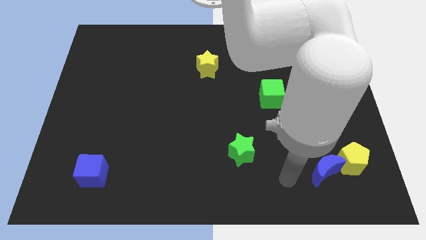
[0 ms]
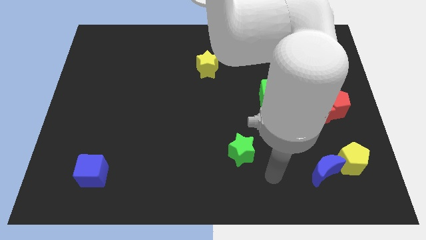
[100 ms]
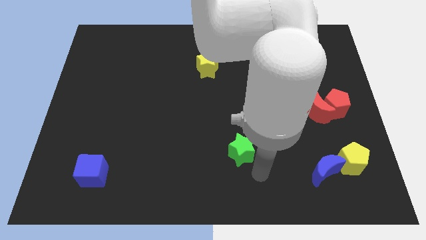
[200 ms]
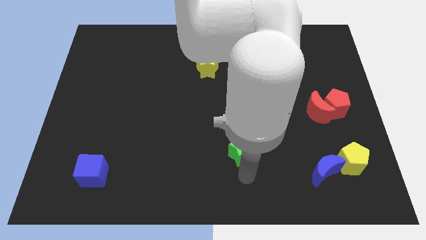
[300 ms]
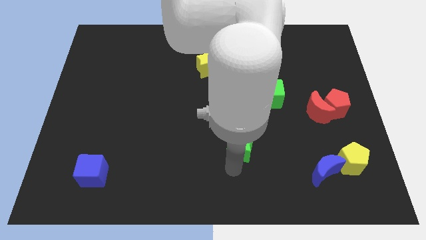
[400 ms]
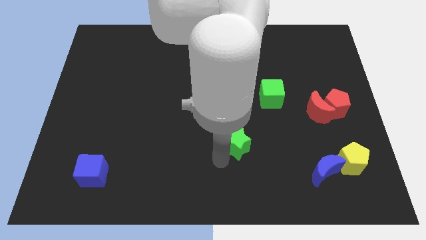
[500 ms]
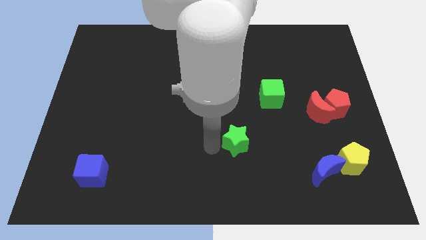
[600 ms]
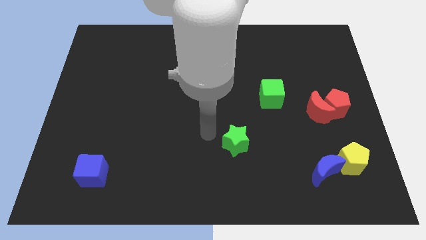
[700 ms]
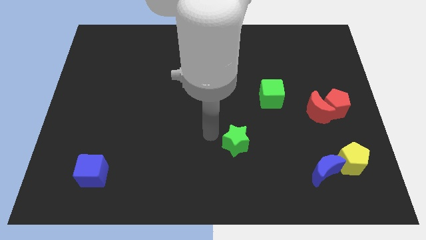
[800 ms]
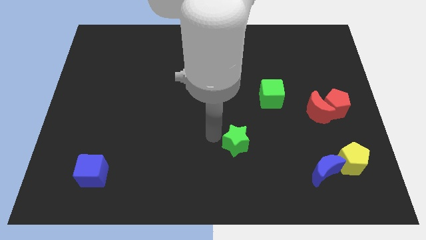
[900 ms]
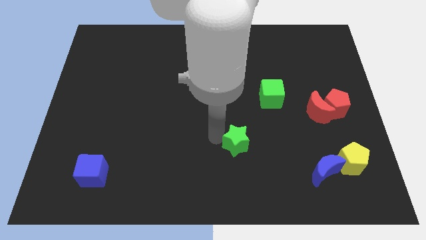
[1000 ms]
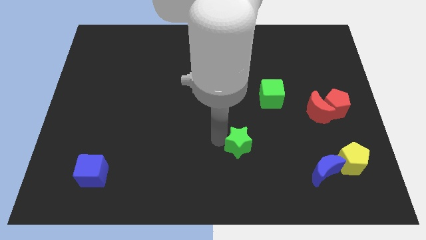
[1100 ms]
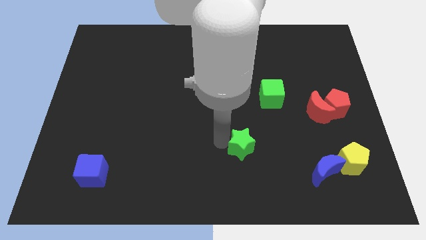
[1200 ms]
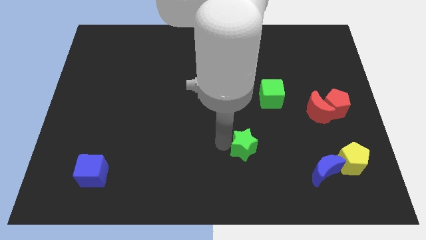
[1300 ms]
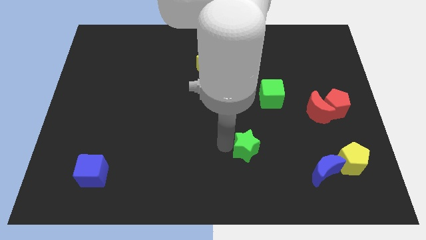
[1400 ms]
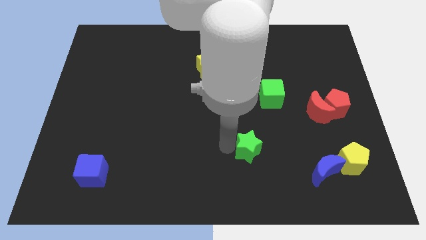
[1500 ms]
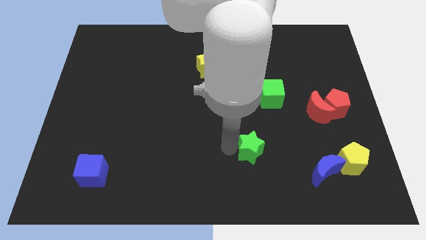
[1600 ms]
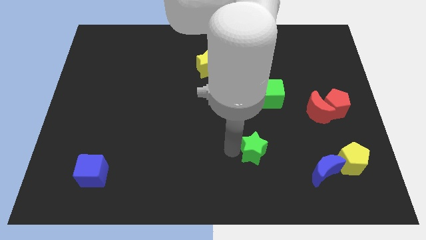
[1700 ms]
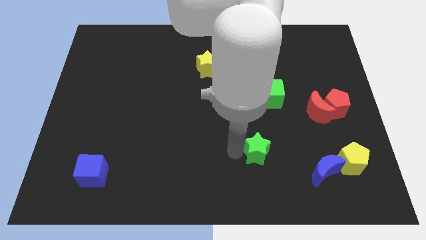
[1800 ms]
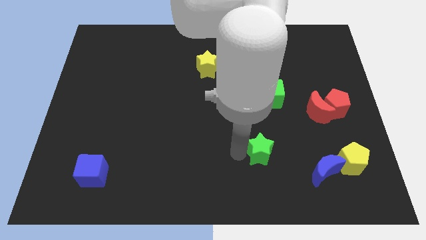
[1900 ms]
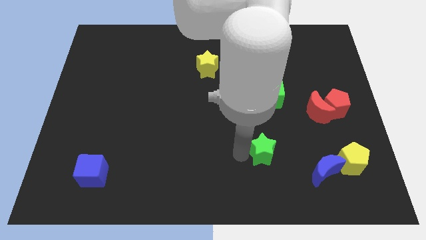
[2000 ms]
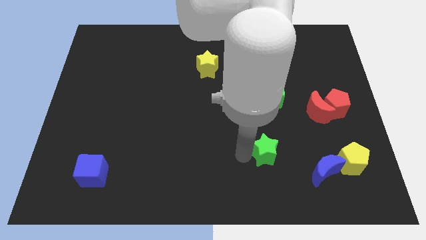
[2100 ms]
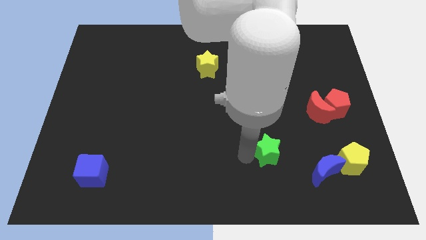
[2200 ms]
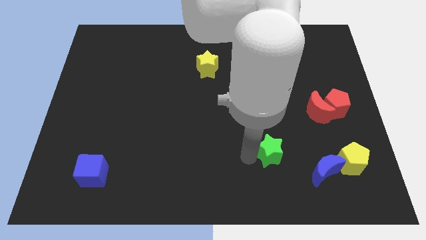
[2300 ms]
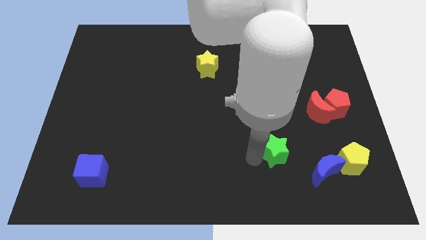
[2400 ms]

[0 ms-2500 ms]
move the green star right a little

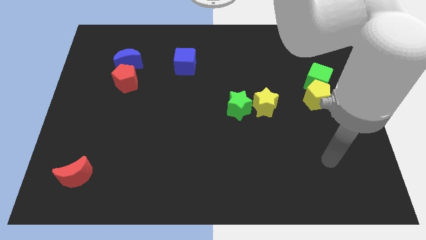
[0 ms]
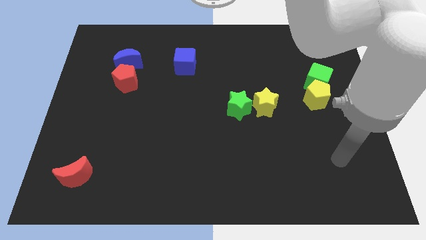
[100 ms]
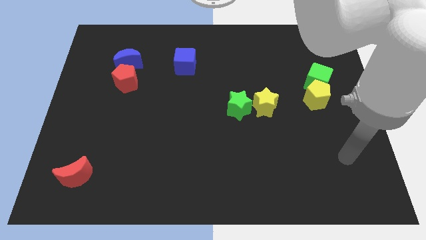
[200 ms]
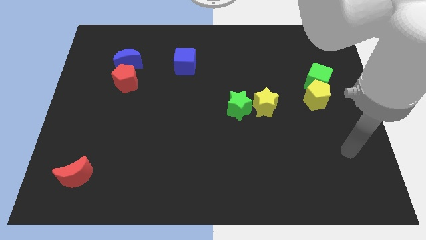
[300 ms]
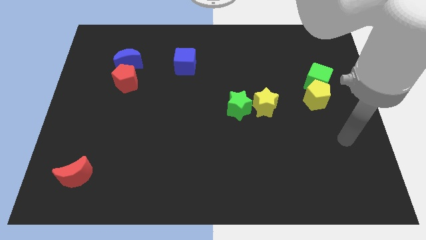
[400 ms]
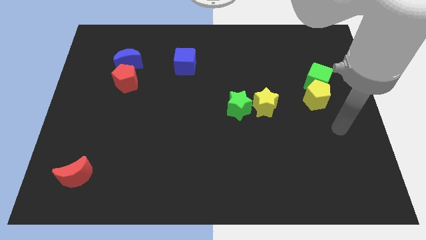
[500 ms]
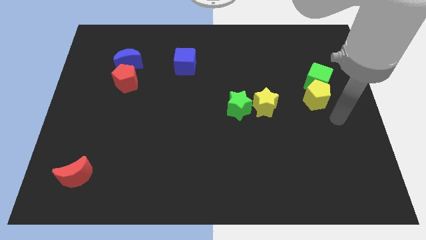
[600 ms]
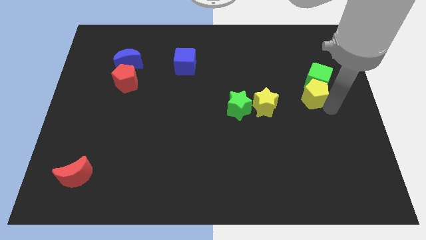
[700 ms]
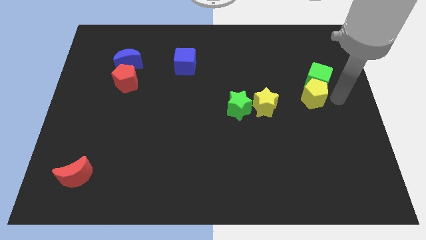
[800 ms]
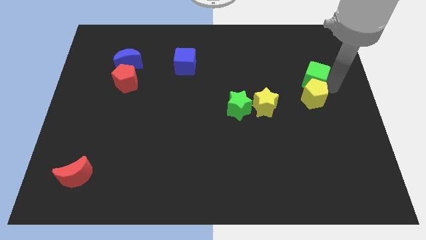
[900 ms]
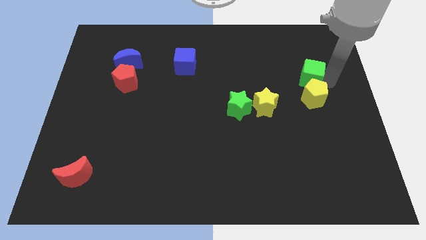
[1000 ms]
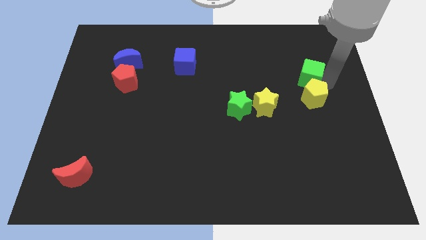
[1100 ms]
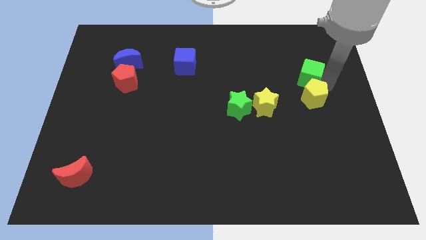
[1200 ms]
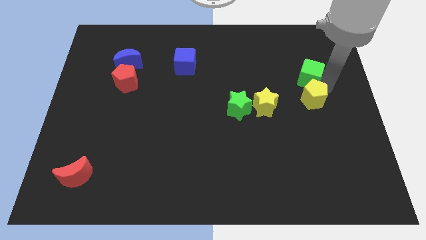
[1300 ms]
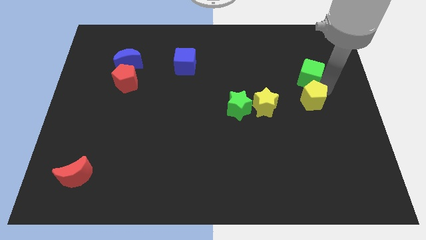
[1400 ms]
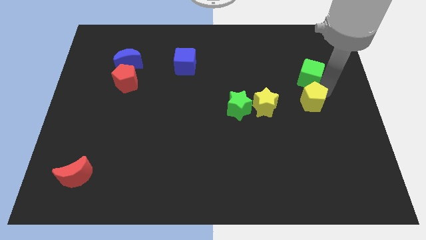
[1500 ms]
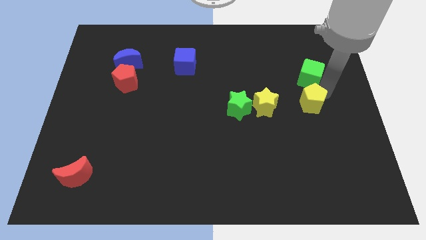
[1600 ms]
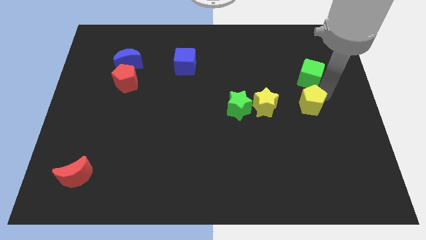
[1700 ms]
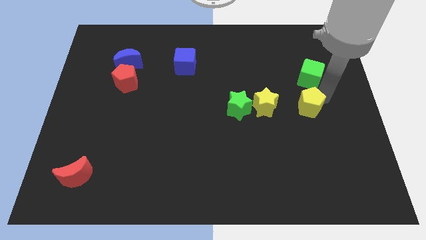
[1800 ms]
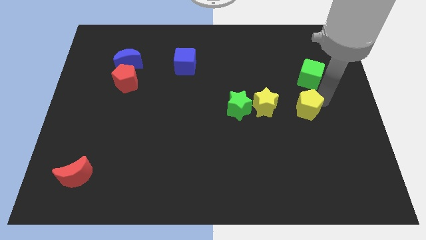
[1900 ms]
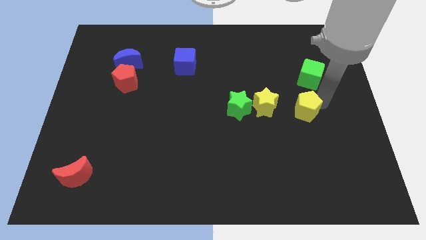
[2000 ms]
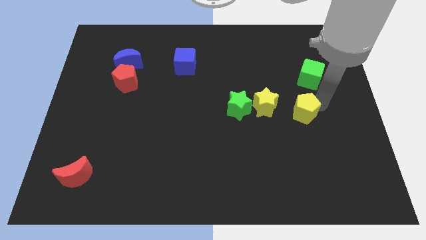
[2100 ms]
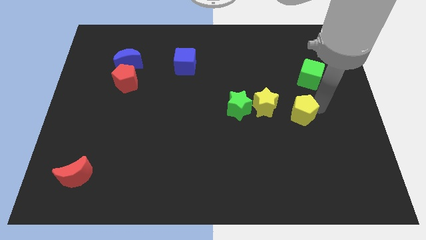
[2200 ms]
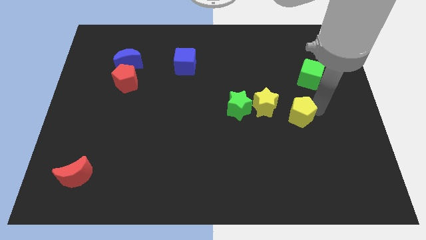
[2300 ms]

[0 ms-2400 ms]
move the yellow pentagon downwards and left diagonally somewhat

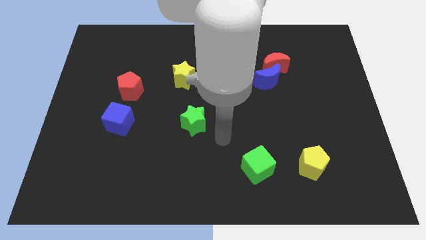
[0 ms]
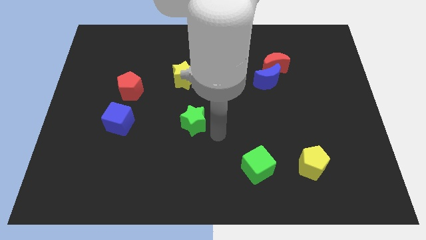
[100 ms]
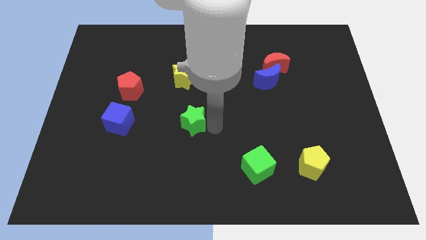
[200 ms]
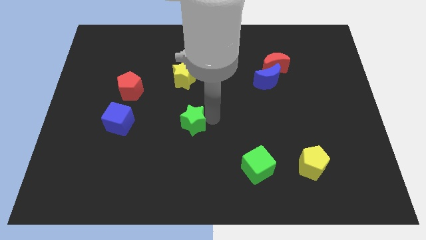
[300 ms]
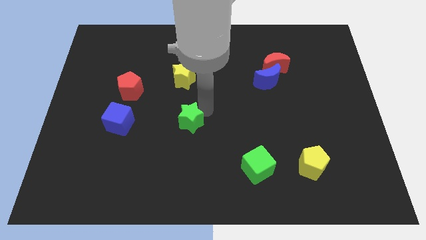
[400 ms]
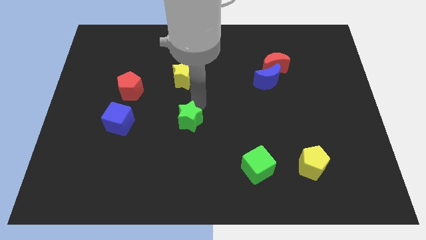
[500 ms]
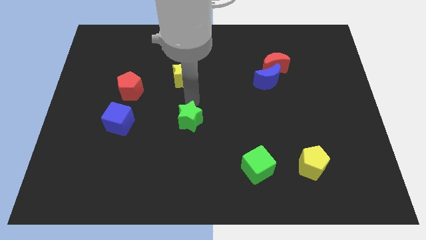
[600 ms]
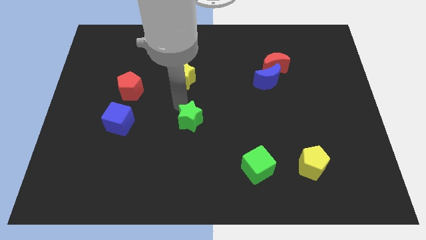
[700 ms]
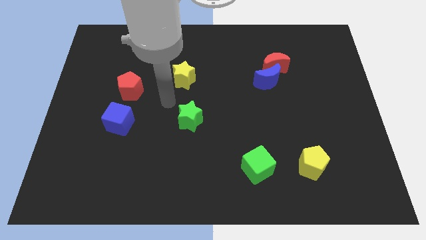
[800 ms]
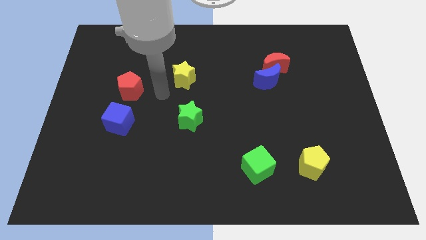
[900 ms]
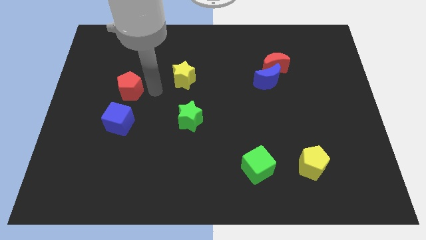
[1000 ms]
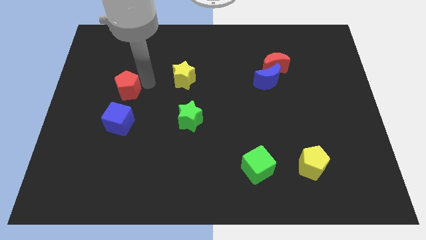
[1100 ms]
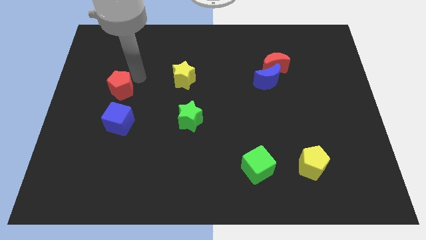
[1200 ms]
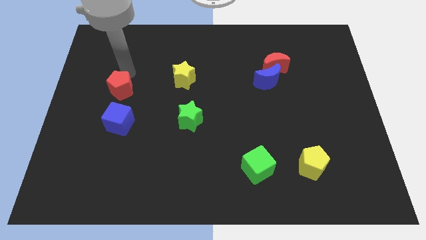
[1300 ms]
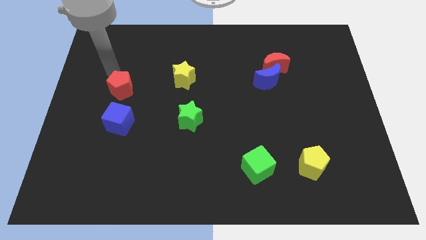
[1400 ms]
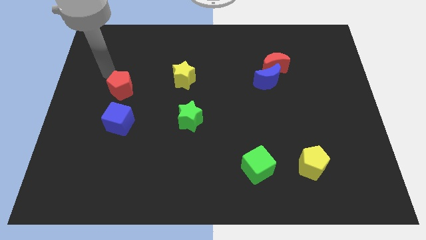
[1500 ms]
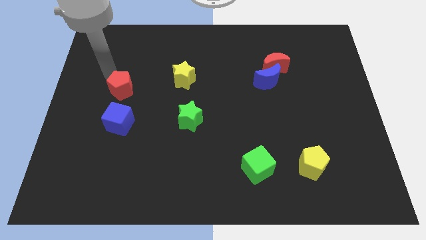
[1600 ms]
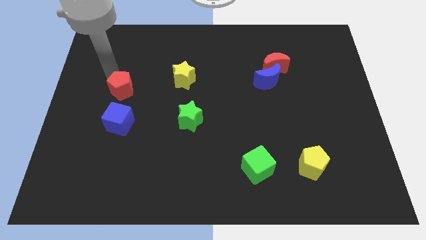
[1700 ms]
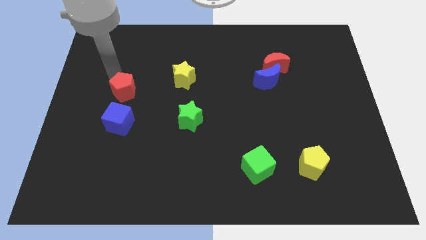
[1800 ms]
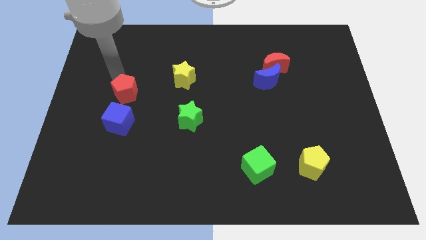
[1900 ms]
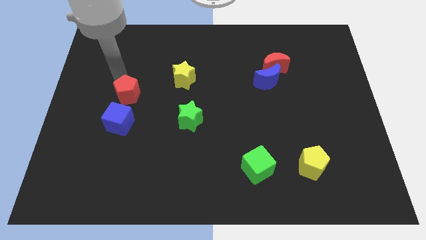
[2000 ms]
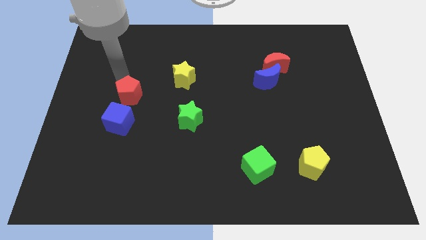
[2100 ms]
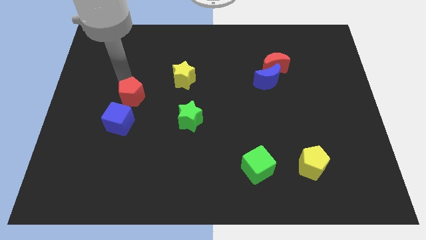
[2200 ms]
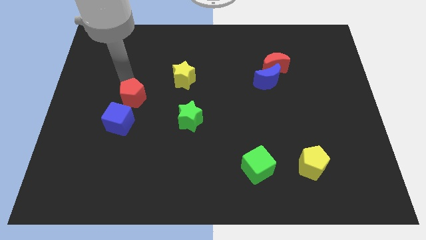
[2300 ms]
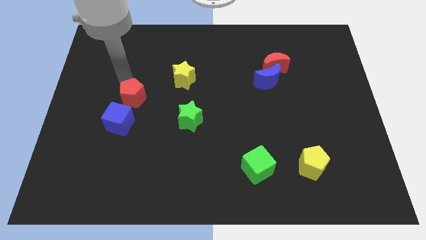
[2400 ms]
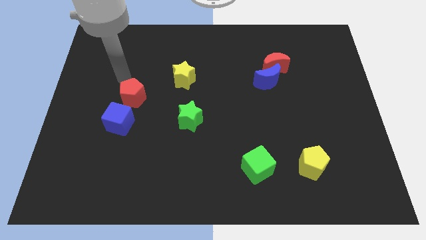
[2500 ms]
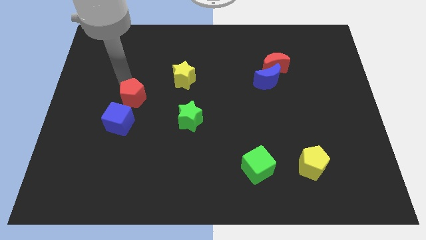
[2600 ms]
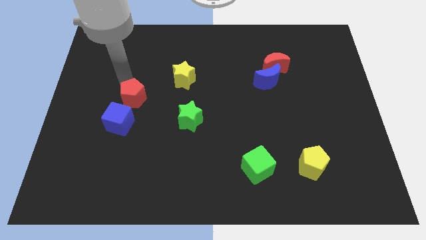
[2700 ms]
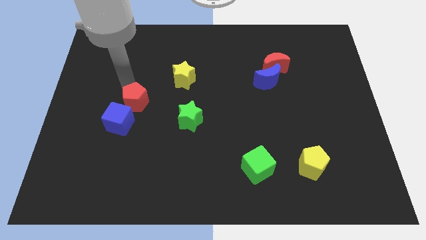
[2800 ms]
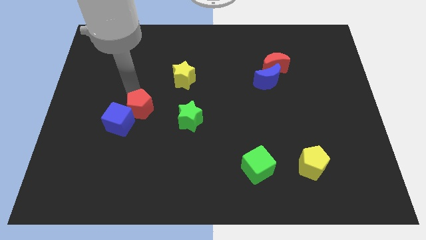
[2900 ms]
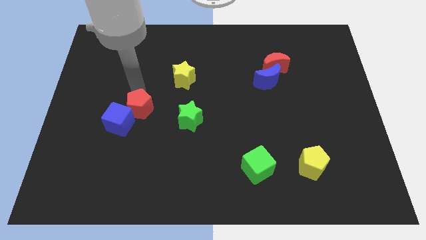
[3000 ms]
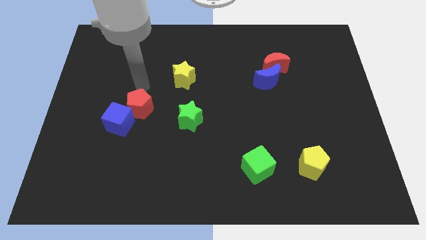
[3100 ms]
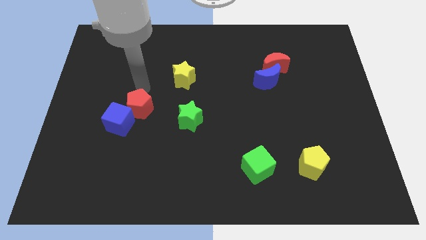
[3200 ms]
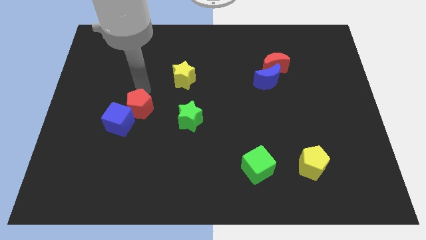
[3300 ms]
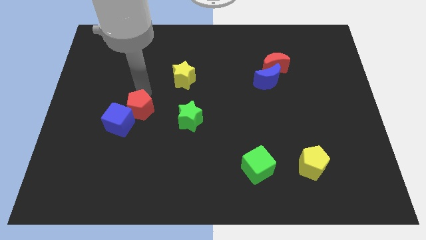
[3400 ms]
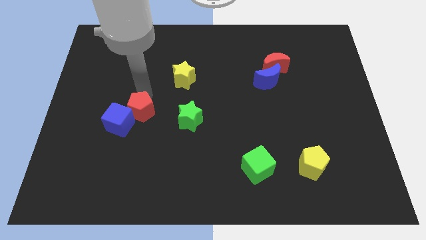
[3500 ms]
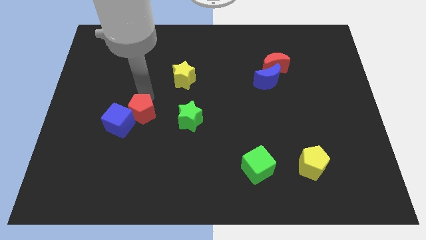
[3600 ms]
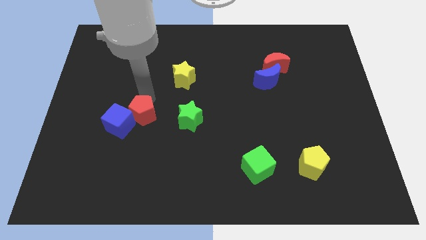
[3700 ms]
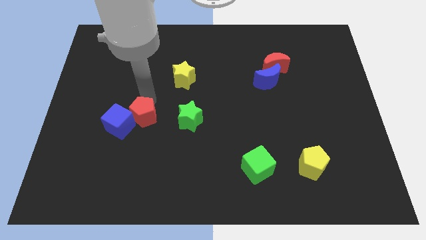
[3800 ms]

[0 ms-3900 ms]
slightly move the red pentagon down
